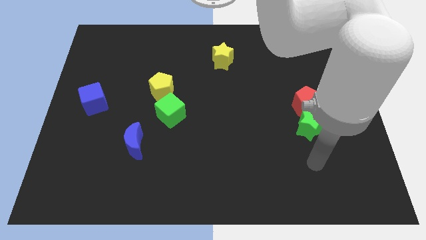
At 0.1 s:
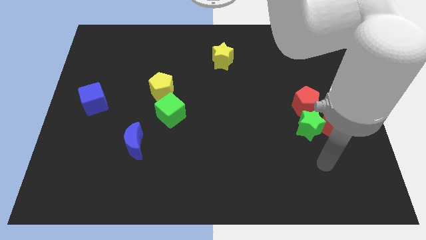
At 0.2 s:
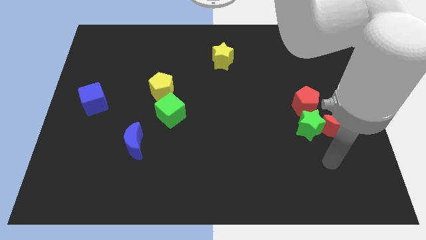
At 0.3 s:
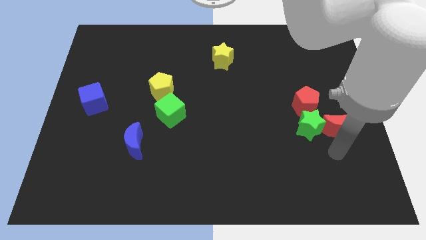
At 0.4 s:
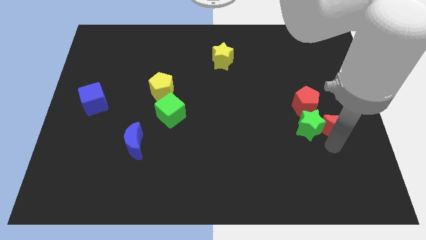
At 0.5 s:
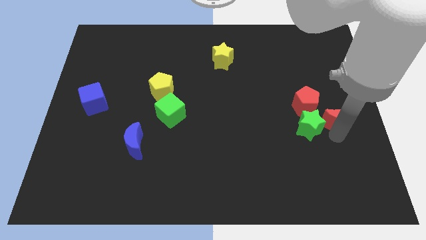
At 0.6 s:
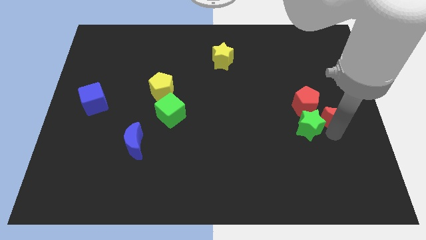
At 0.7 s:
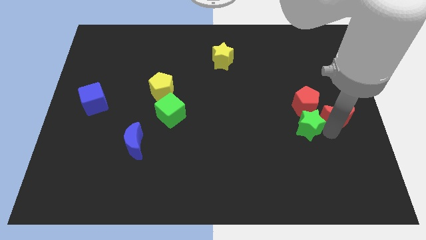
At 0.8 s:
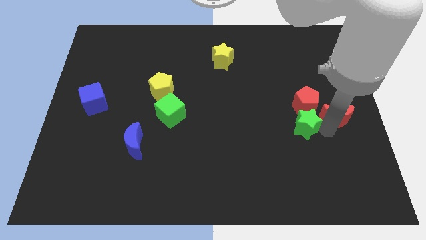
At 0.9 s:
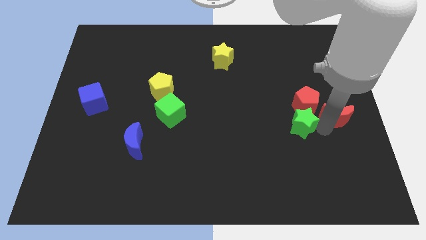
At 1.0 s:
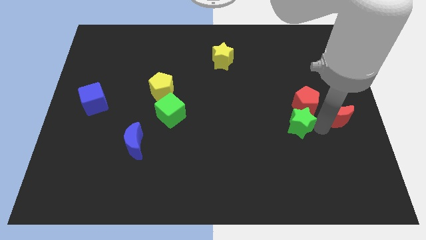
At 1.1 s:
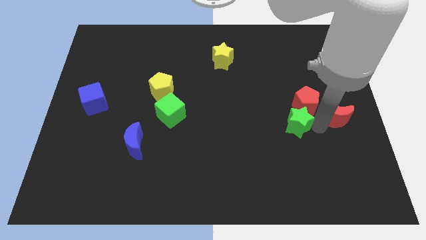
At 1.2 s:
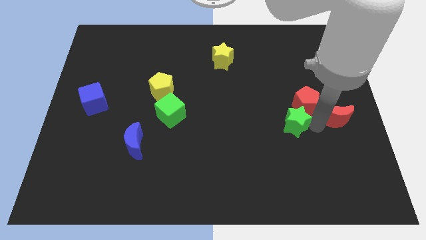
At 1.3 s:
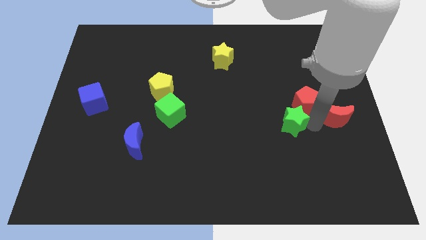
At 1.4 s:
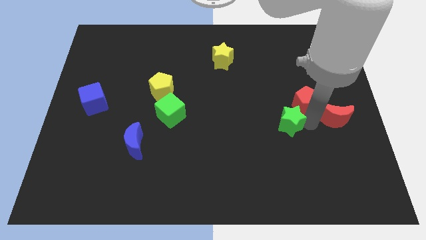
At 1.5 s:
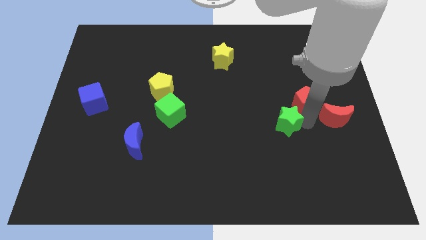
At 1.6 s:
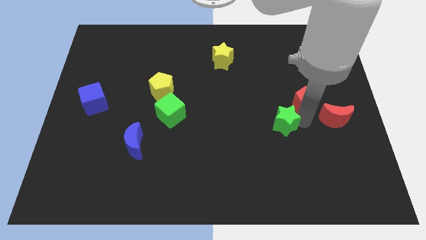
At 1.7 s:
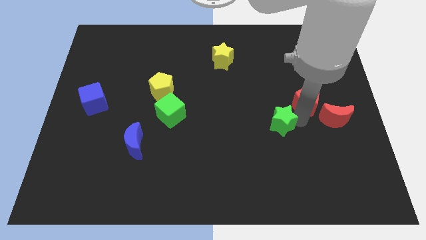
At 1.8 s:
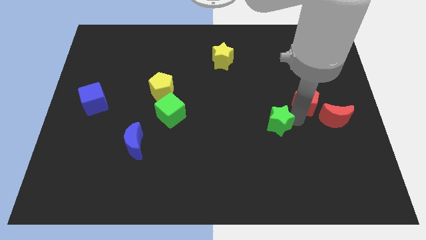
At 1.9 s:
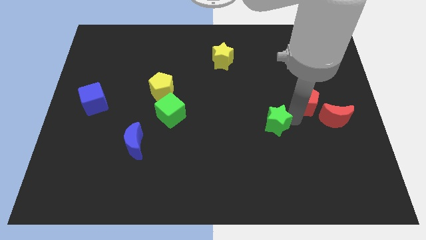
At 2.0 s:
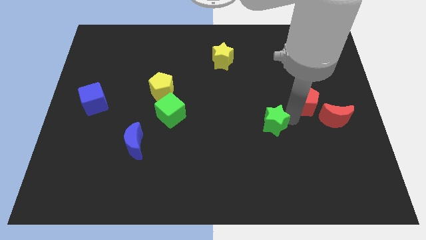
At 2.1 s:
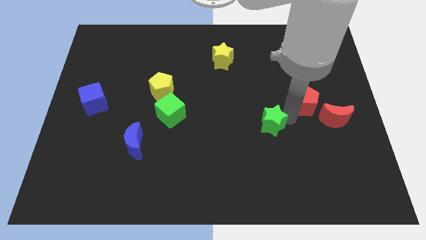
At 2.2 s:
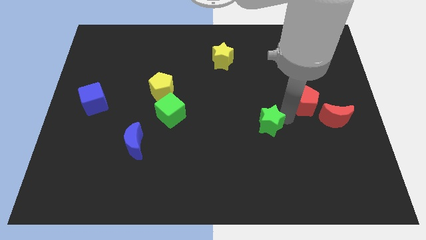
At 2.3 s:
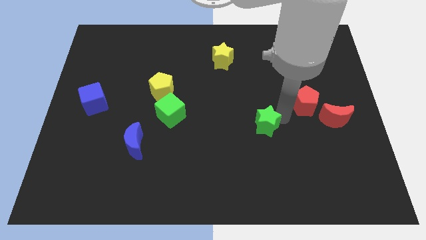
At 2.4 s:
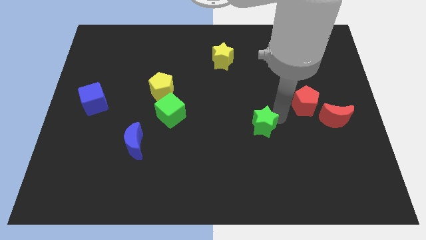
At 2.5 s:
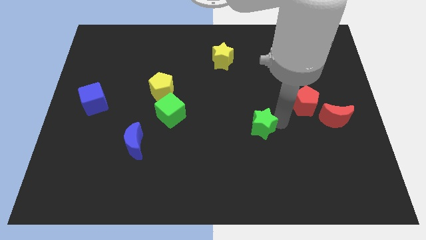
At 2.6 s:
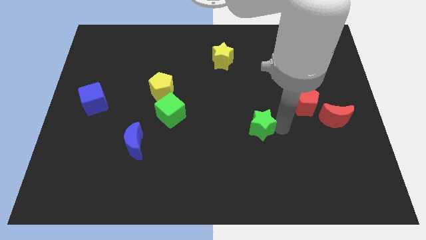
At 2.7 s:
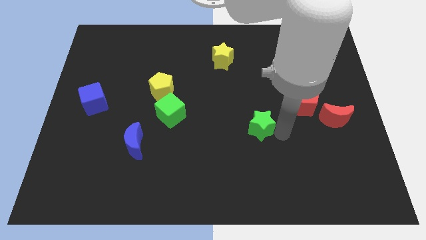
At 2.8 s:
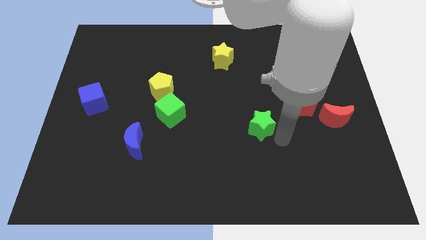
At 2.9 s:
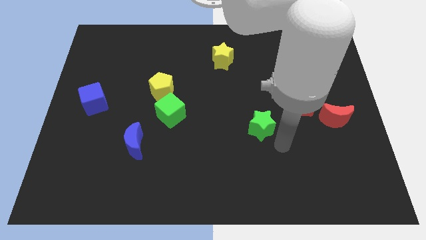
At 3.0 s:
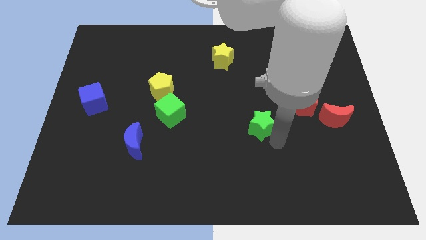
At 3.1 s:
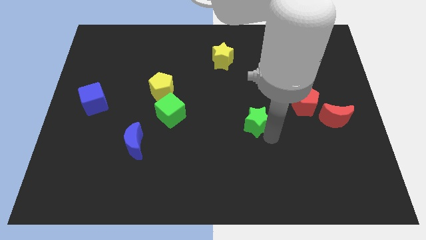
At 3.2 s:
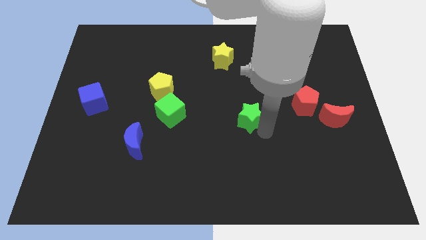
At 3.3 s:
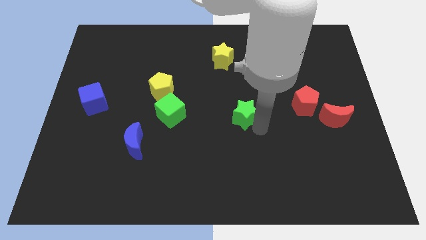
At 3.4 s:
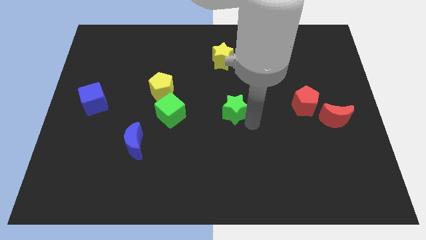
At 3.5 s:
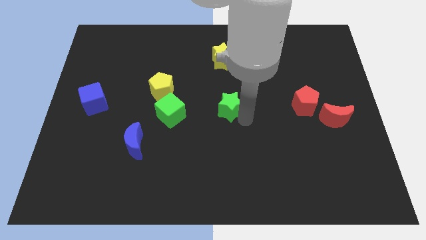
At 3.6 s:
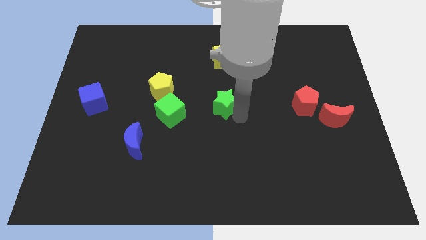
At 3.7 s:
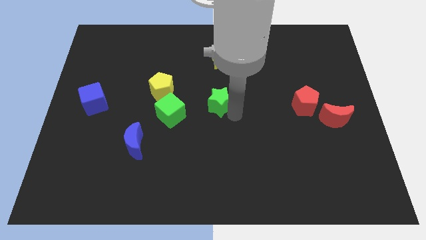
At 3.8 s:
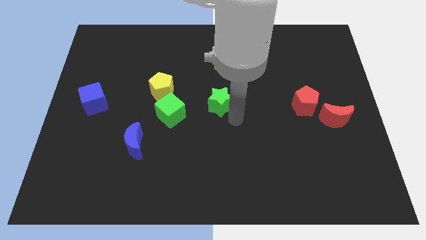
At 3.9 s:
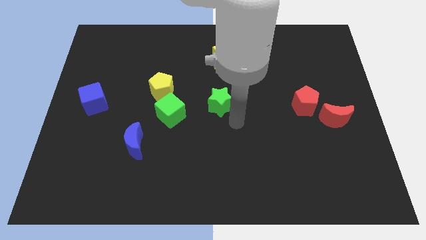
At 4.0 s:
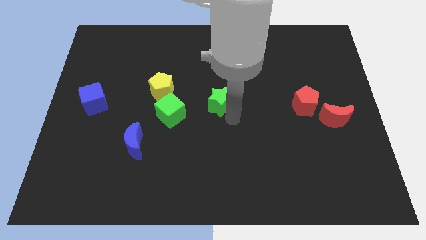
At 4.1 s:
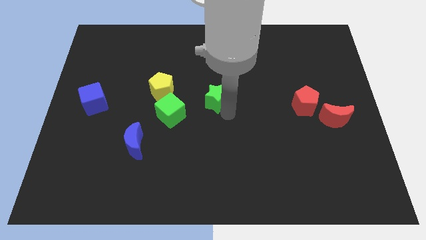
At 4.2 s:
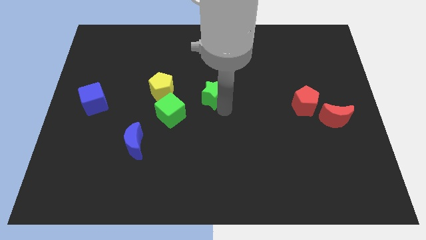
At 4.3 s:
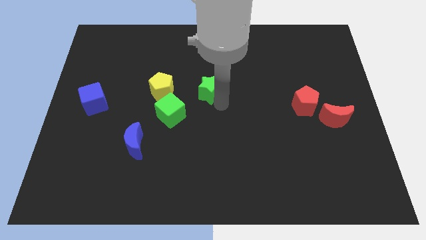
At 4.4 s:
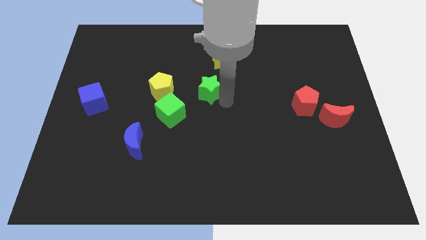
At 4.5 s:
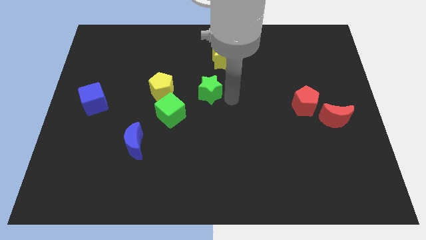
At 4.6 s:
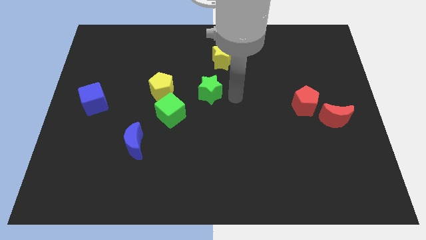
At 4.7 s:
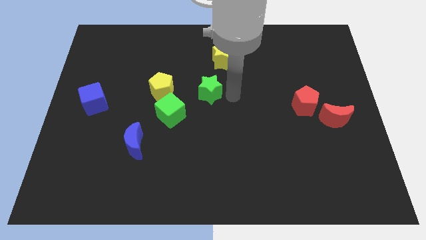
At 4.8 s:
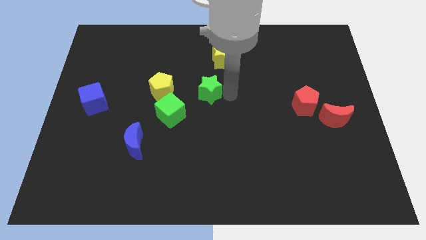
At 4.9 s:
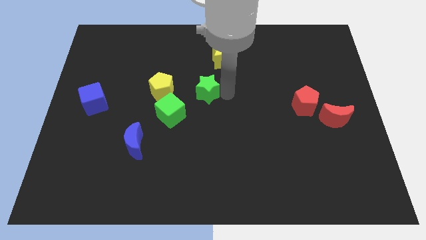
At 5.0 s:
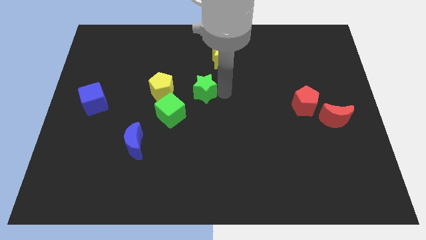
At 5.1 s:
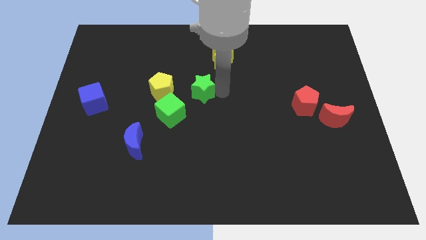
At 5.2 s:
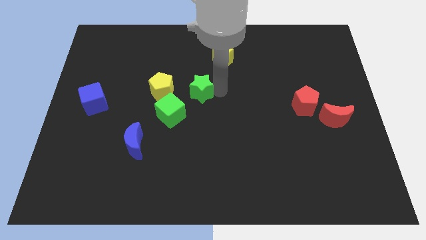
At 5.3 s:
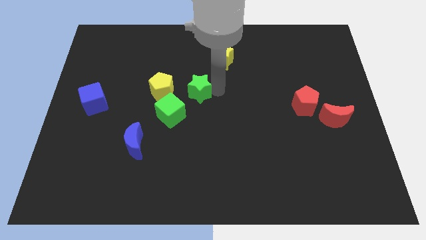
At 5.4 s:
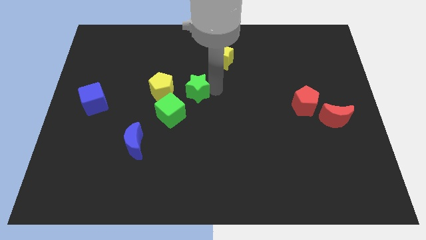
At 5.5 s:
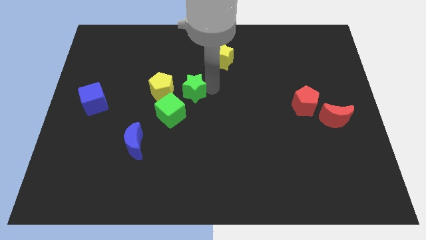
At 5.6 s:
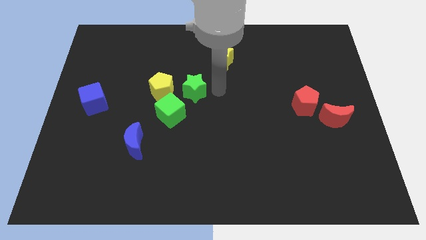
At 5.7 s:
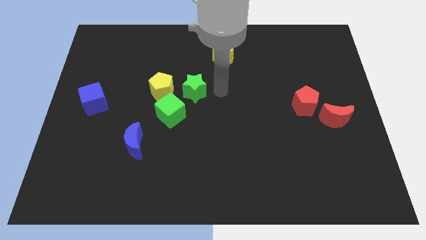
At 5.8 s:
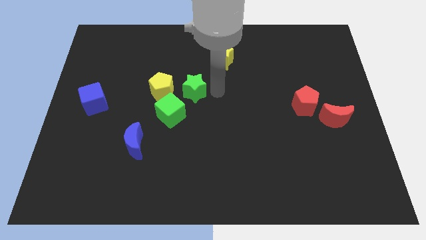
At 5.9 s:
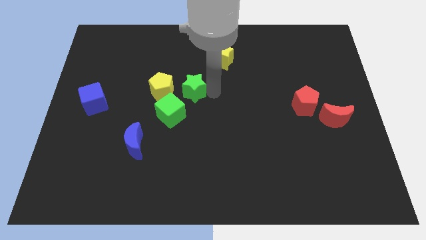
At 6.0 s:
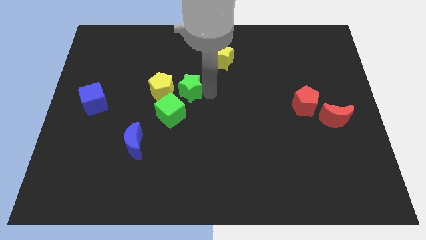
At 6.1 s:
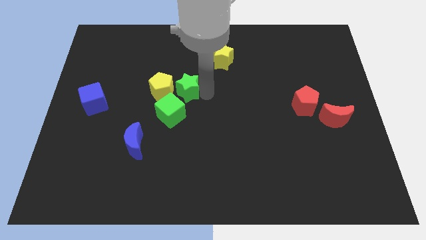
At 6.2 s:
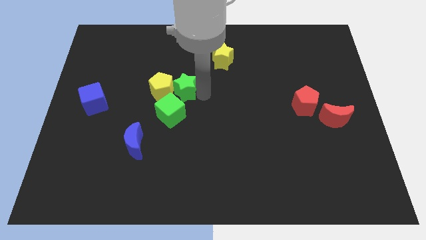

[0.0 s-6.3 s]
push the green star towards the yellow pentagon
